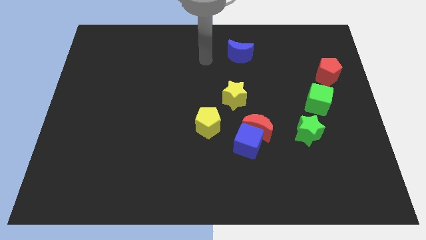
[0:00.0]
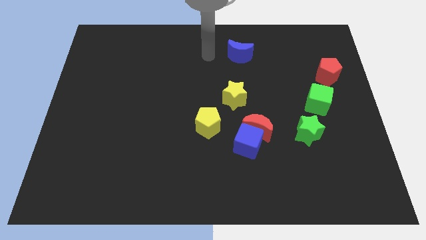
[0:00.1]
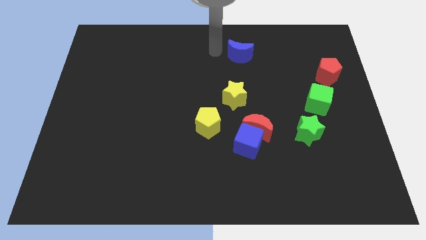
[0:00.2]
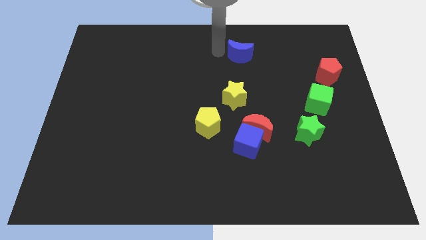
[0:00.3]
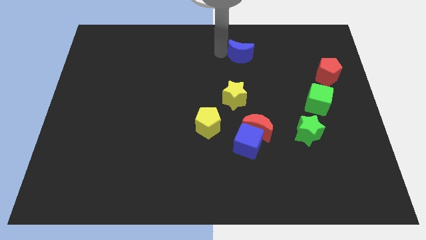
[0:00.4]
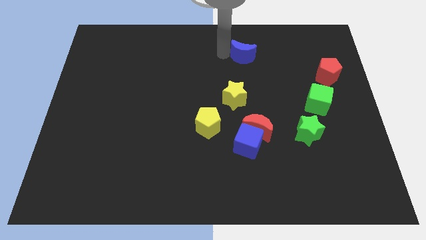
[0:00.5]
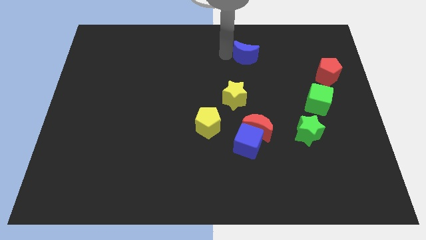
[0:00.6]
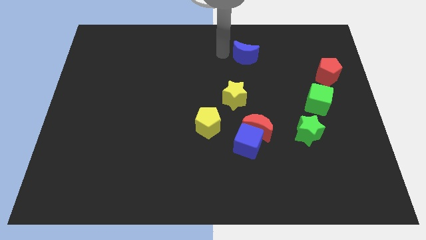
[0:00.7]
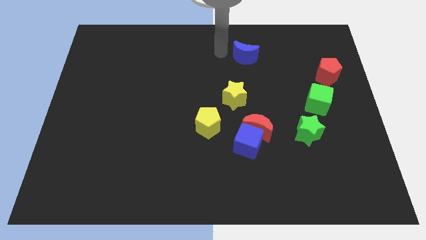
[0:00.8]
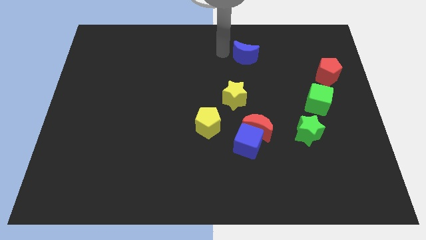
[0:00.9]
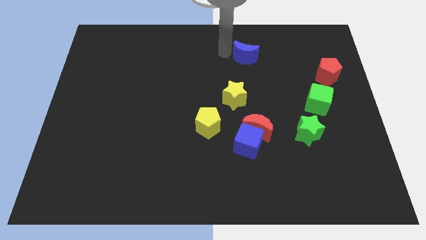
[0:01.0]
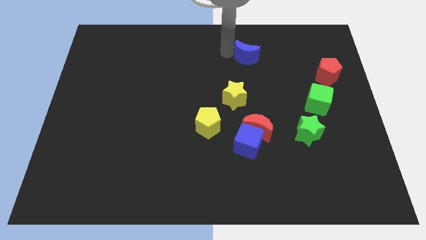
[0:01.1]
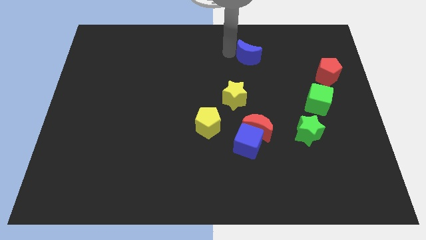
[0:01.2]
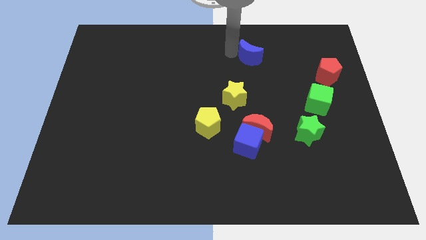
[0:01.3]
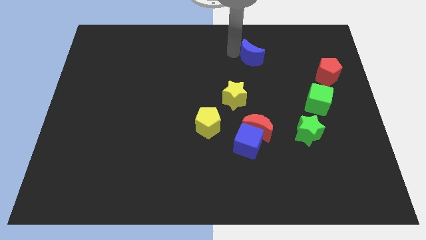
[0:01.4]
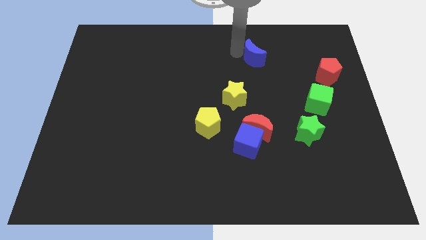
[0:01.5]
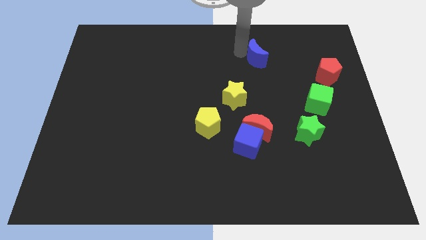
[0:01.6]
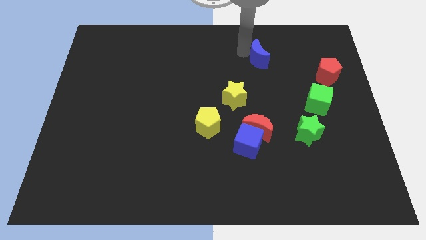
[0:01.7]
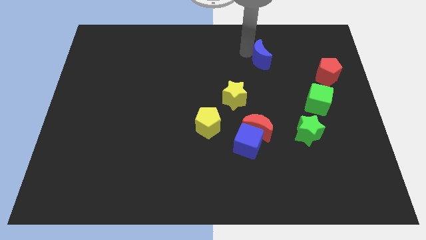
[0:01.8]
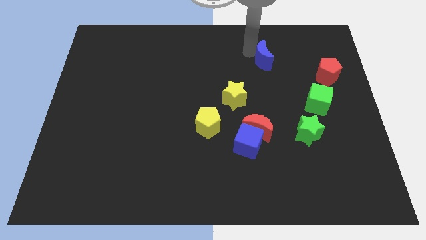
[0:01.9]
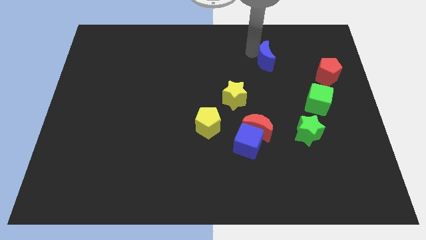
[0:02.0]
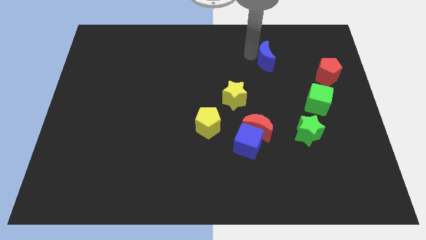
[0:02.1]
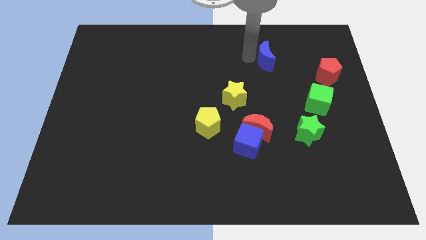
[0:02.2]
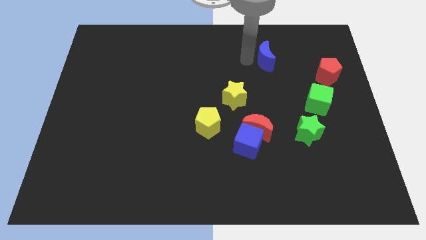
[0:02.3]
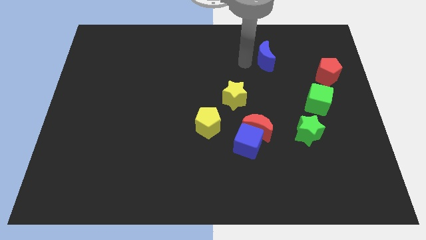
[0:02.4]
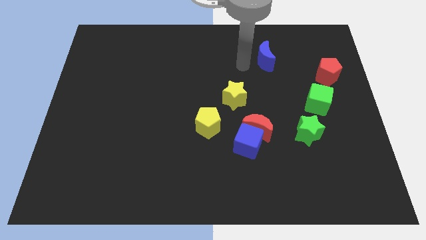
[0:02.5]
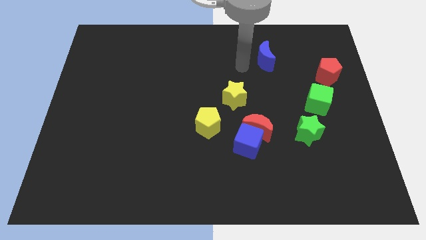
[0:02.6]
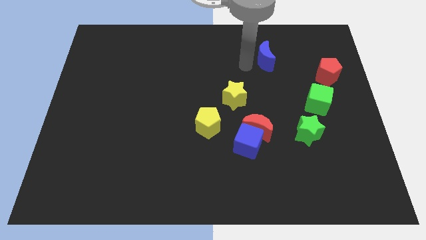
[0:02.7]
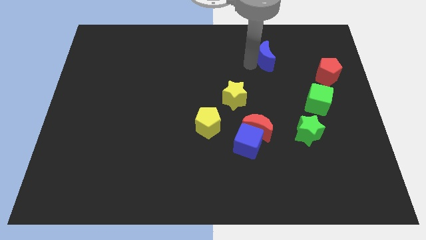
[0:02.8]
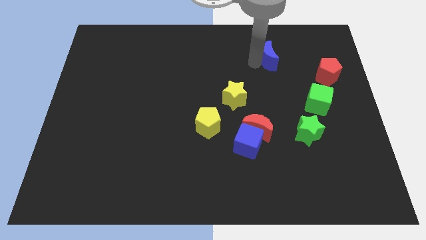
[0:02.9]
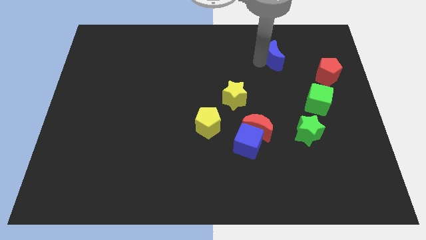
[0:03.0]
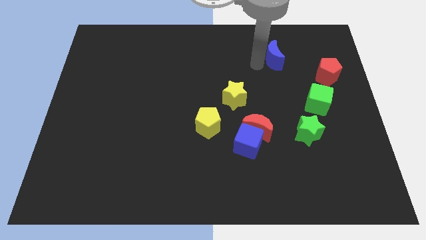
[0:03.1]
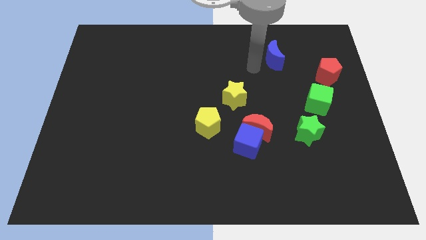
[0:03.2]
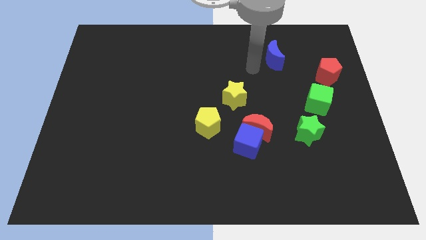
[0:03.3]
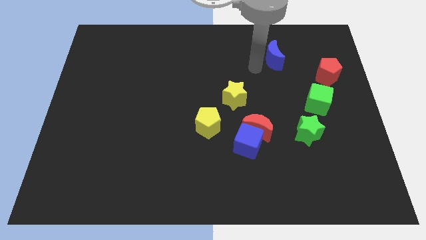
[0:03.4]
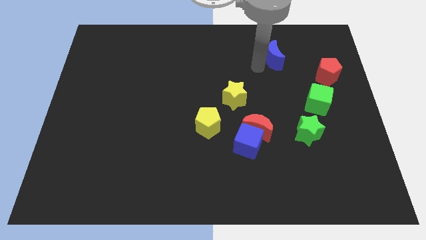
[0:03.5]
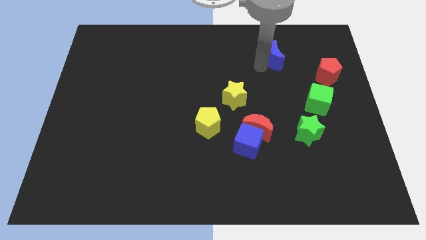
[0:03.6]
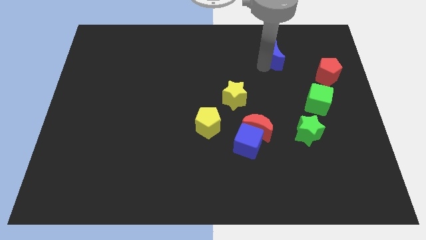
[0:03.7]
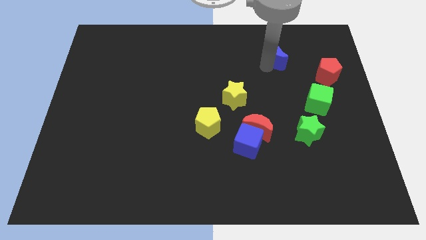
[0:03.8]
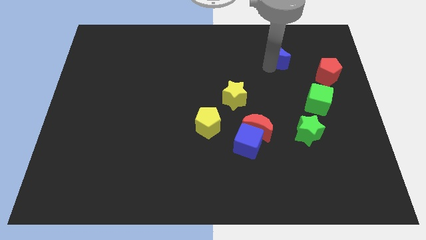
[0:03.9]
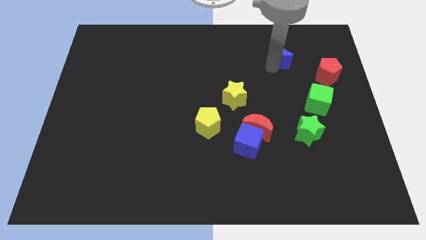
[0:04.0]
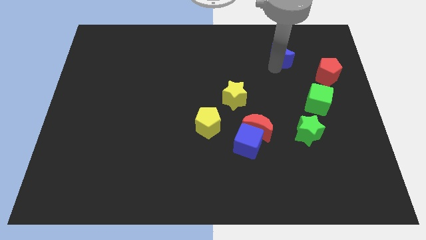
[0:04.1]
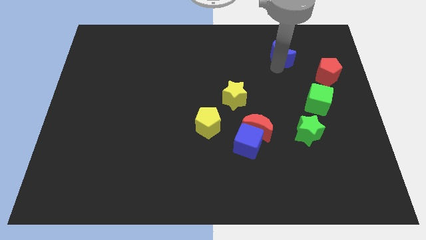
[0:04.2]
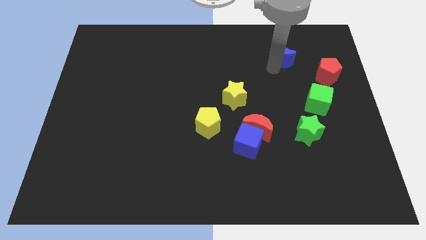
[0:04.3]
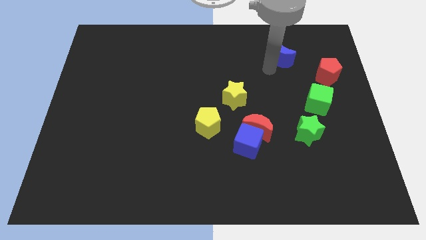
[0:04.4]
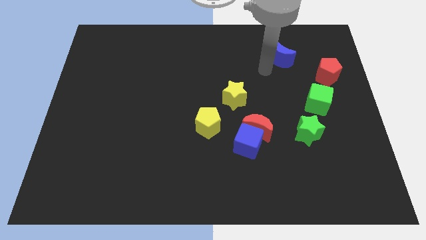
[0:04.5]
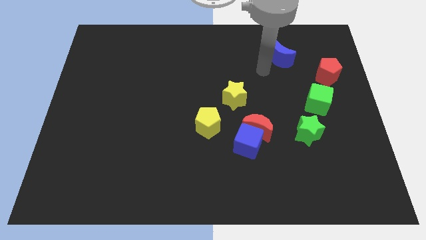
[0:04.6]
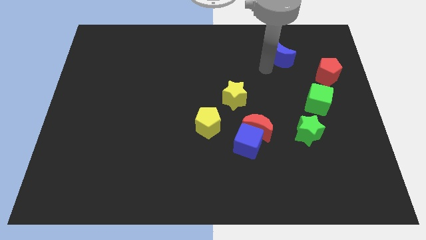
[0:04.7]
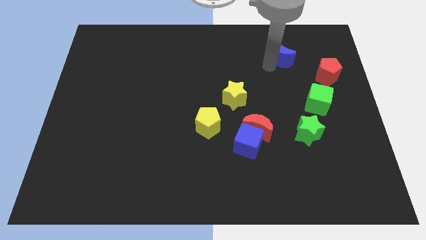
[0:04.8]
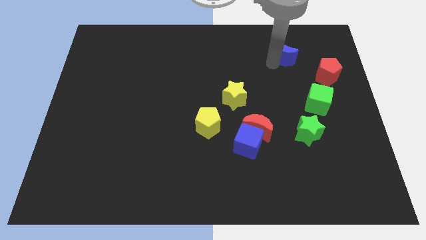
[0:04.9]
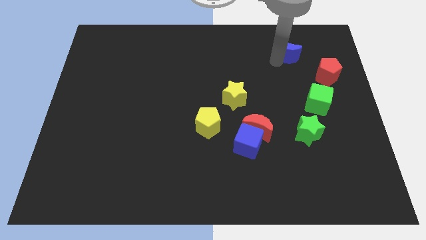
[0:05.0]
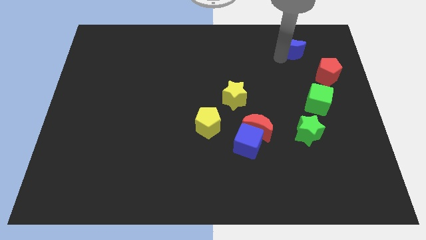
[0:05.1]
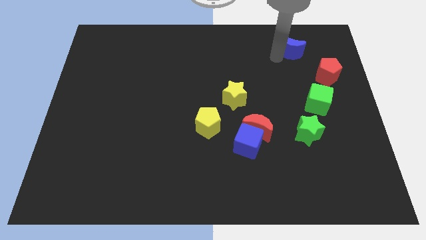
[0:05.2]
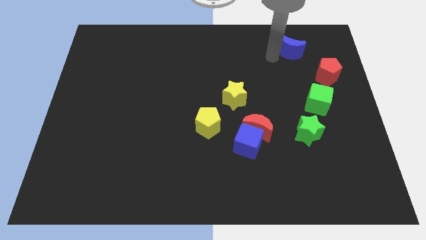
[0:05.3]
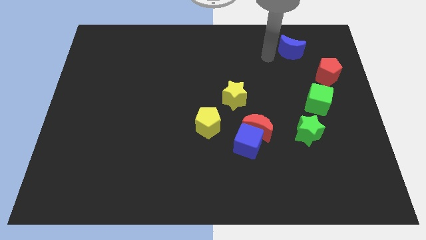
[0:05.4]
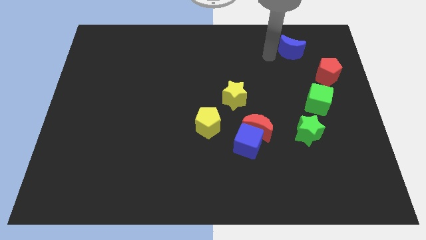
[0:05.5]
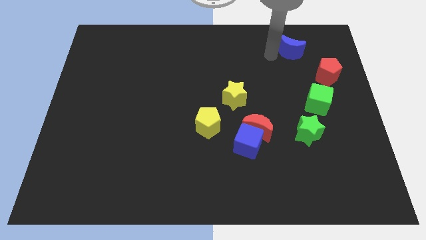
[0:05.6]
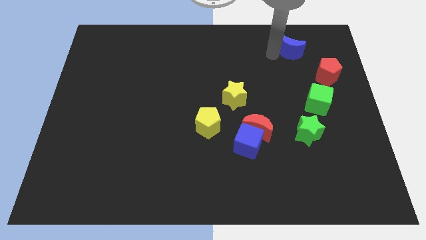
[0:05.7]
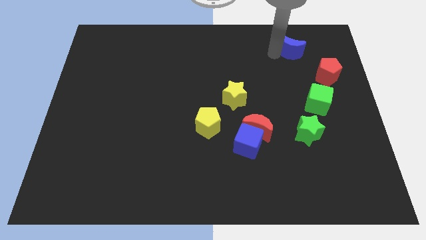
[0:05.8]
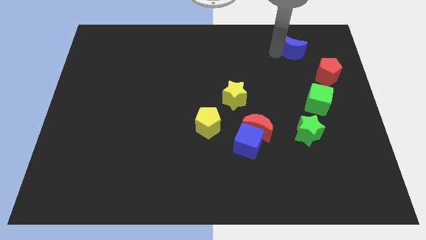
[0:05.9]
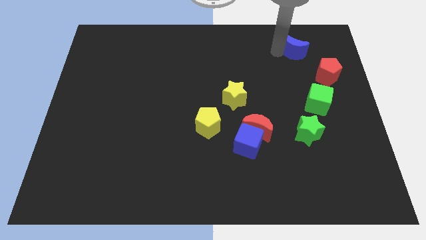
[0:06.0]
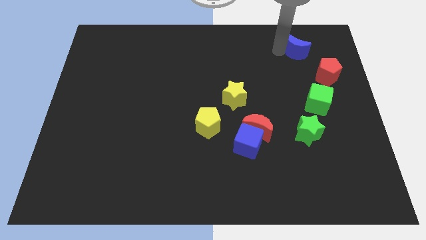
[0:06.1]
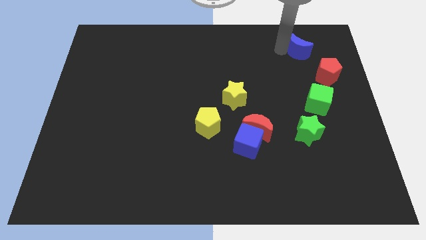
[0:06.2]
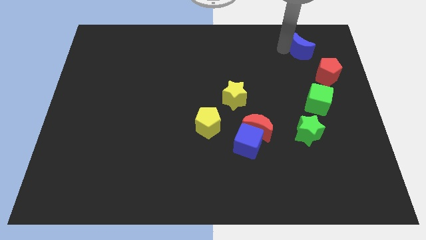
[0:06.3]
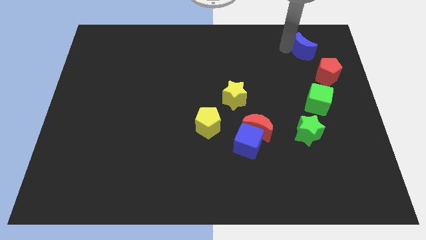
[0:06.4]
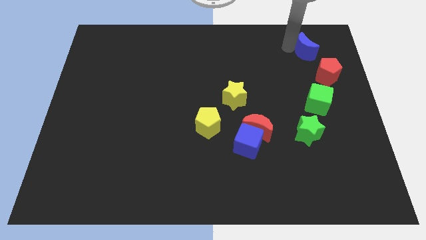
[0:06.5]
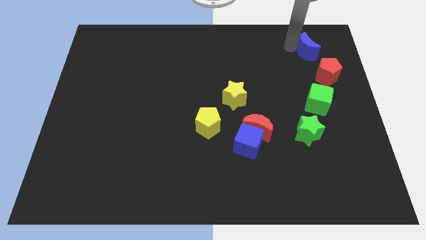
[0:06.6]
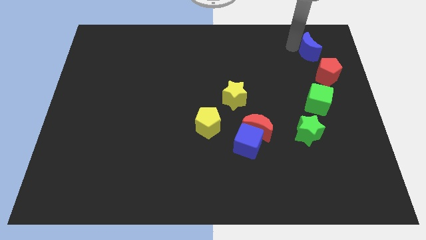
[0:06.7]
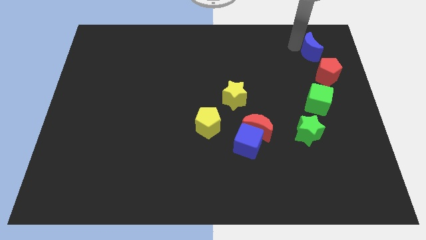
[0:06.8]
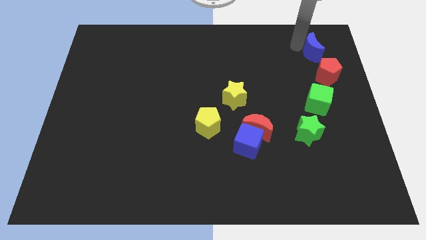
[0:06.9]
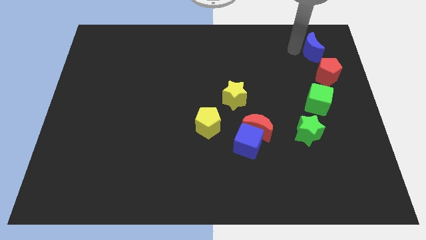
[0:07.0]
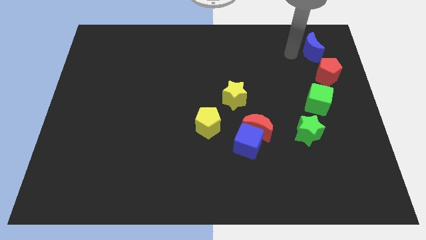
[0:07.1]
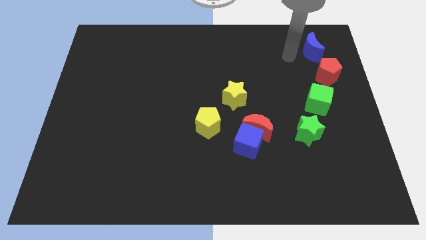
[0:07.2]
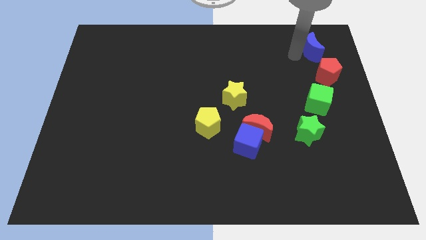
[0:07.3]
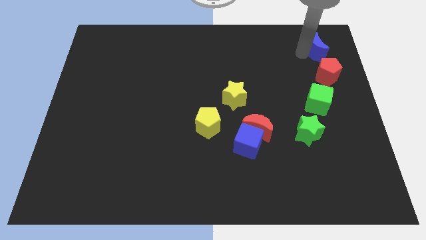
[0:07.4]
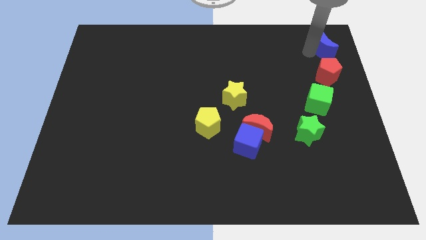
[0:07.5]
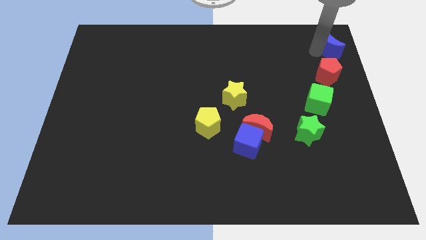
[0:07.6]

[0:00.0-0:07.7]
move the blue moon to the upper right corner
